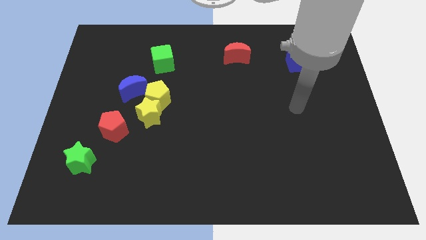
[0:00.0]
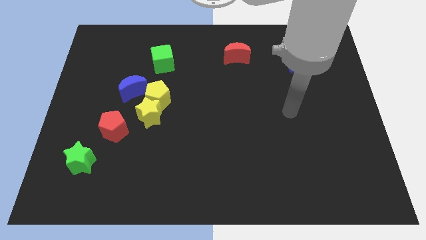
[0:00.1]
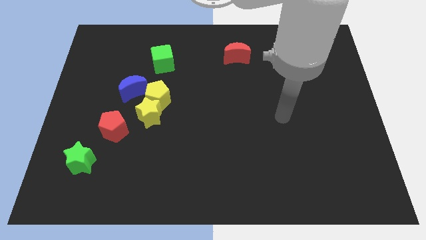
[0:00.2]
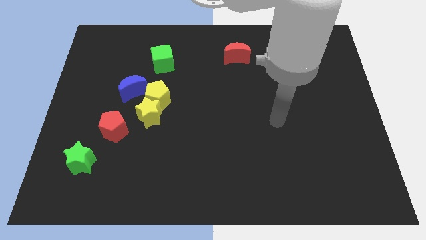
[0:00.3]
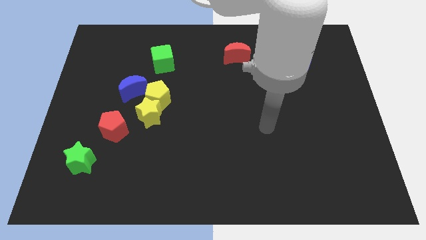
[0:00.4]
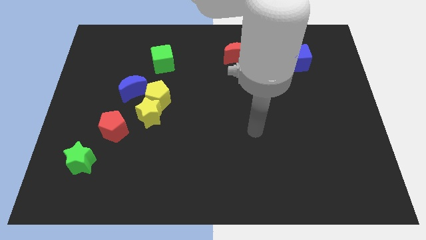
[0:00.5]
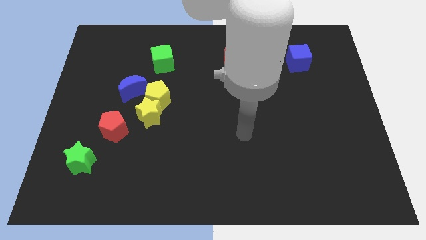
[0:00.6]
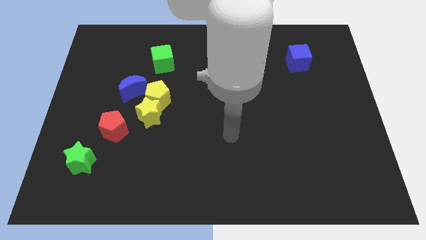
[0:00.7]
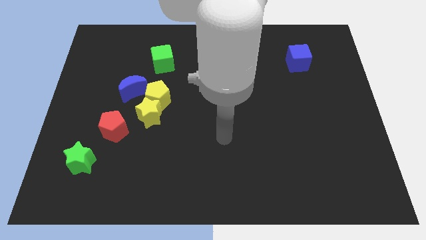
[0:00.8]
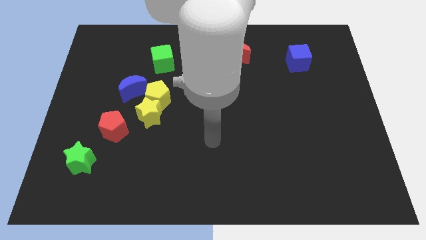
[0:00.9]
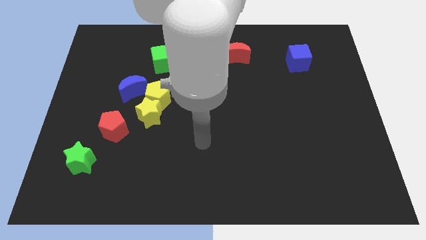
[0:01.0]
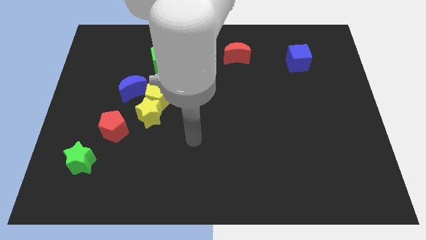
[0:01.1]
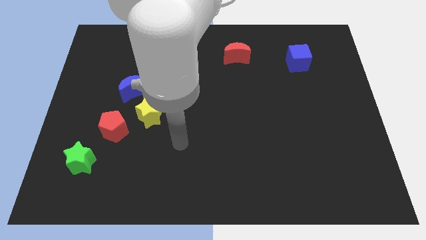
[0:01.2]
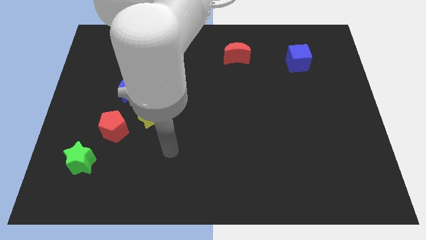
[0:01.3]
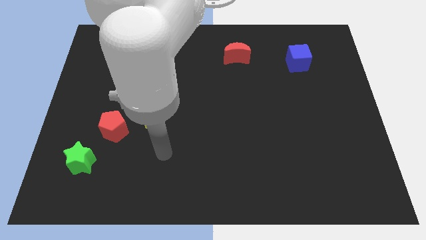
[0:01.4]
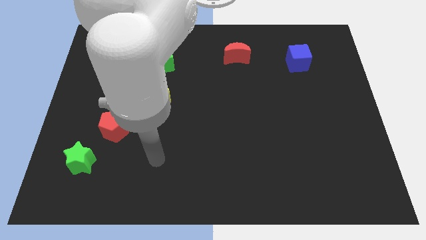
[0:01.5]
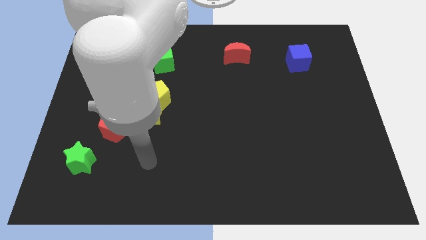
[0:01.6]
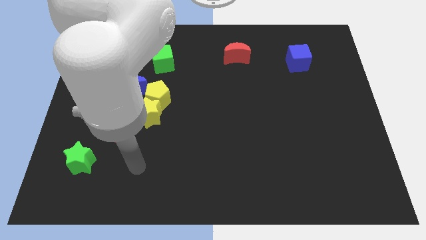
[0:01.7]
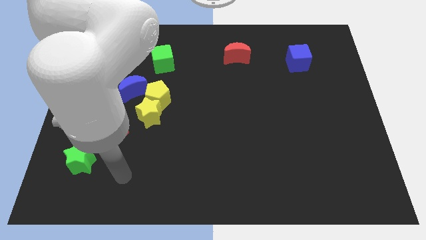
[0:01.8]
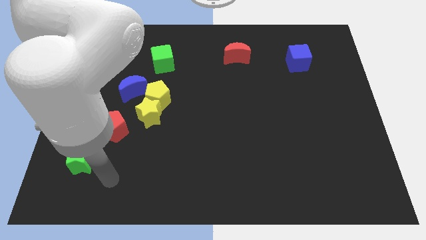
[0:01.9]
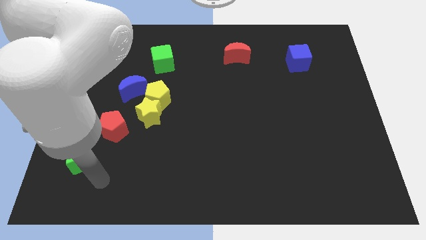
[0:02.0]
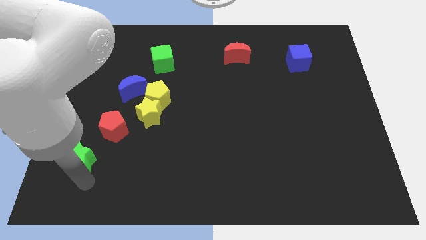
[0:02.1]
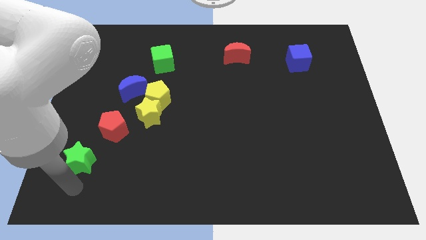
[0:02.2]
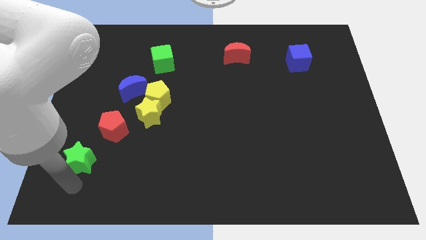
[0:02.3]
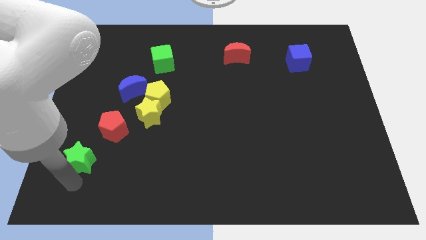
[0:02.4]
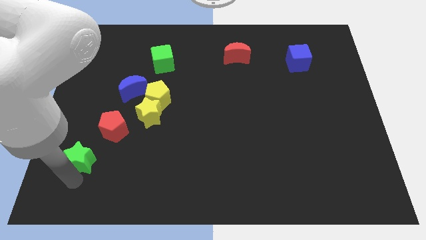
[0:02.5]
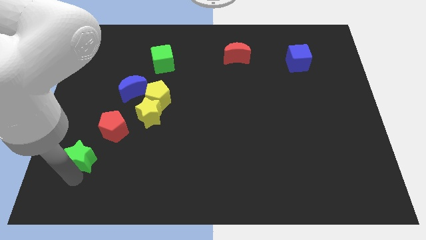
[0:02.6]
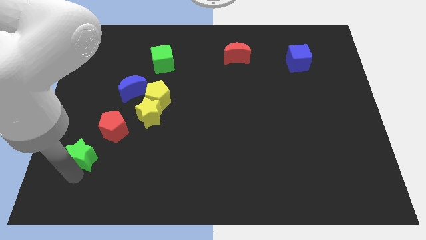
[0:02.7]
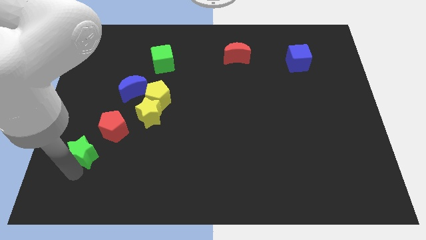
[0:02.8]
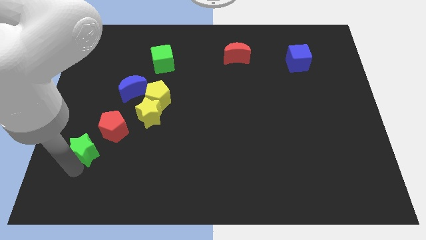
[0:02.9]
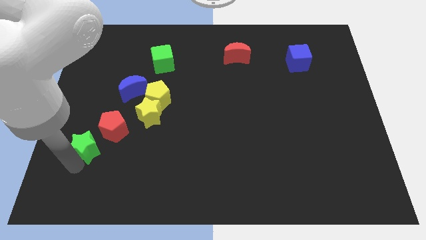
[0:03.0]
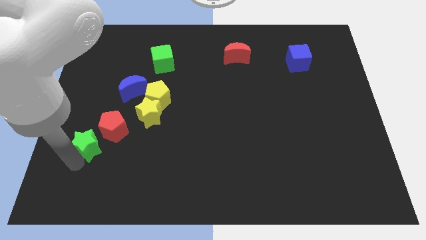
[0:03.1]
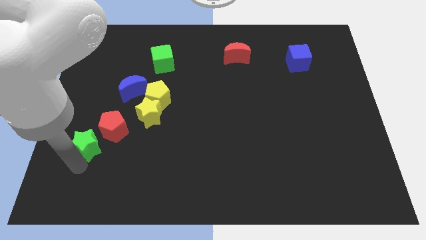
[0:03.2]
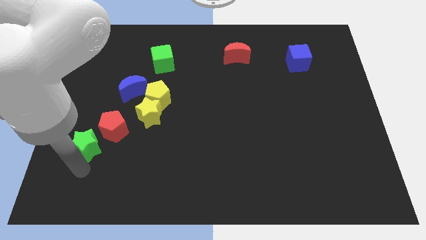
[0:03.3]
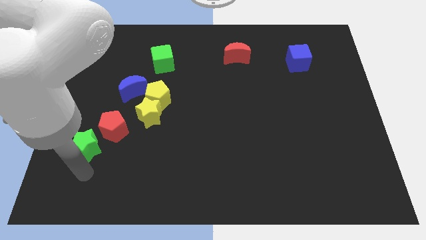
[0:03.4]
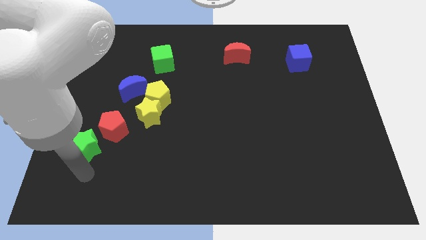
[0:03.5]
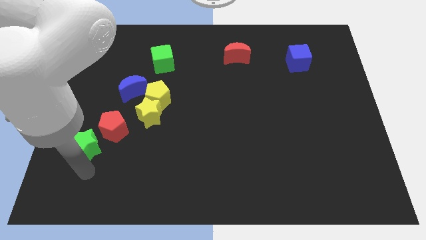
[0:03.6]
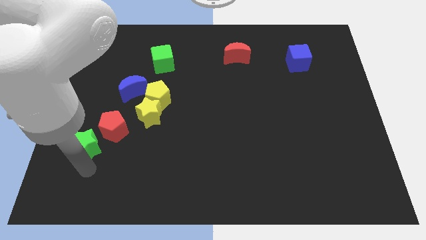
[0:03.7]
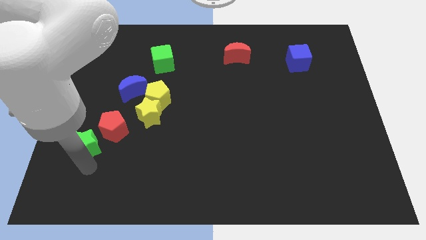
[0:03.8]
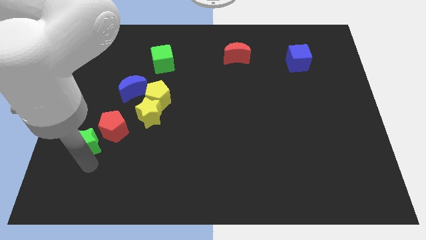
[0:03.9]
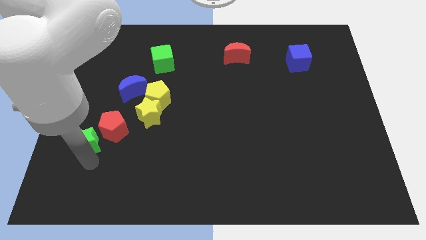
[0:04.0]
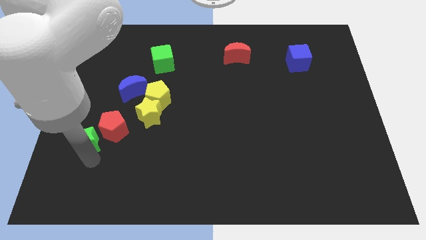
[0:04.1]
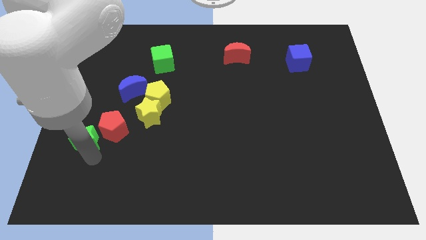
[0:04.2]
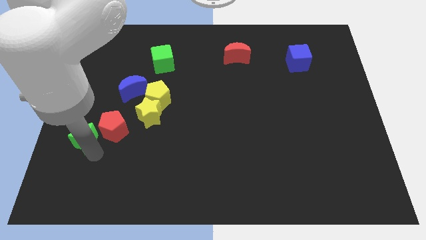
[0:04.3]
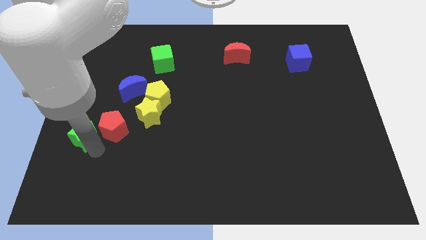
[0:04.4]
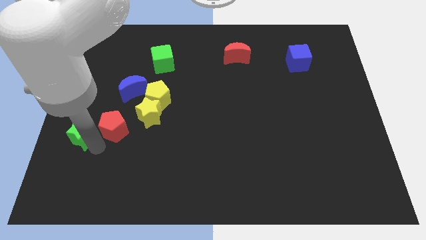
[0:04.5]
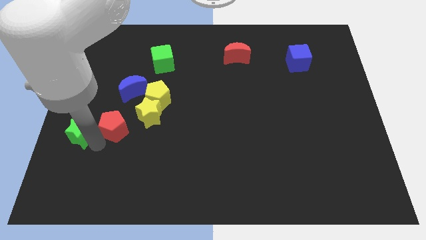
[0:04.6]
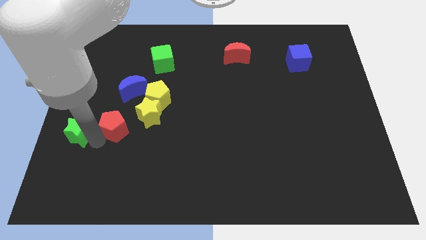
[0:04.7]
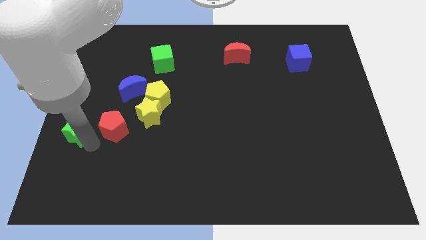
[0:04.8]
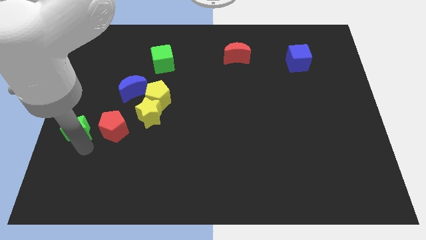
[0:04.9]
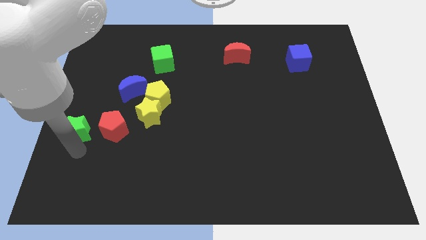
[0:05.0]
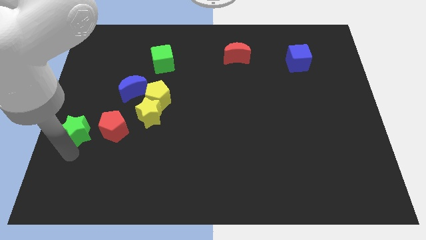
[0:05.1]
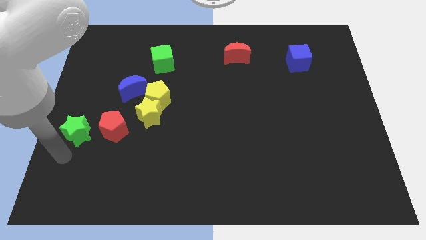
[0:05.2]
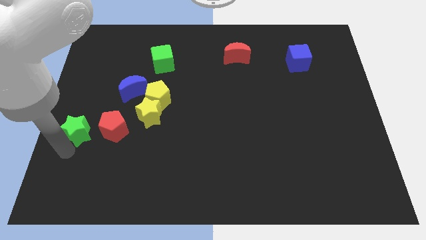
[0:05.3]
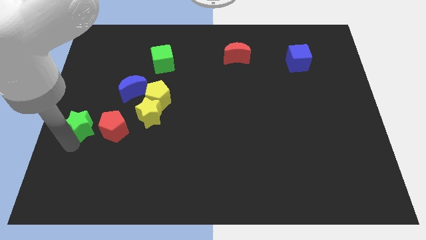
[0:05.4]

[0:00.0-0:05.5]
put the green star to the top left of the red pentagon

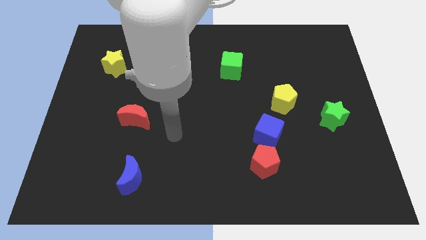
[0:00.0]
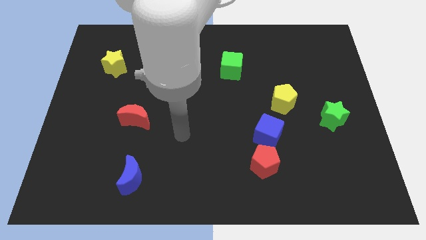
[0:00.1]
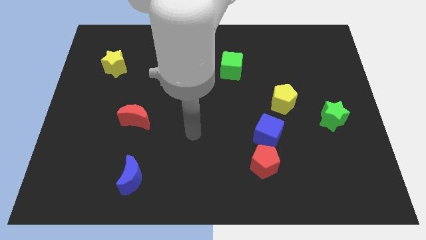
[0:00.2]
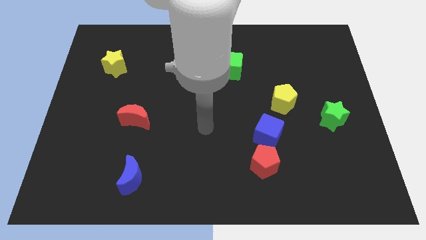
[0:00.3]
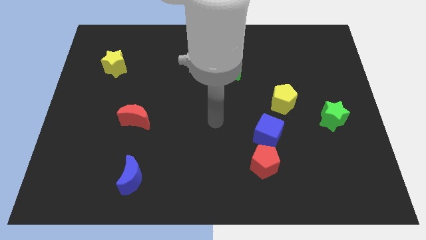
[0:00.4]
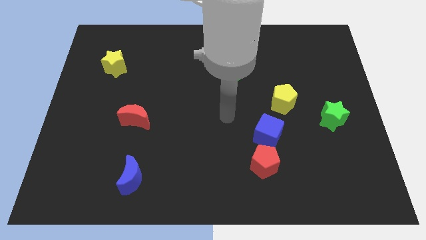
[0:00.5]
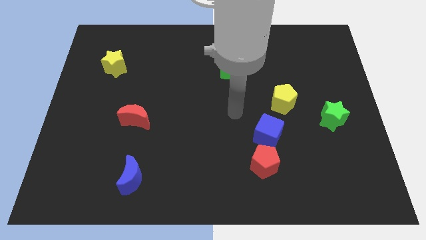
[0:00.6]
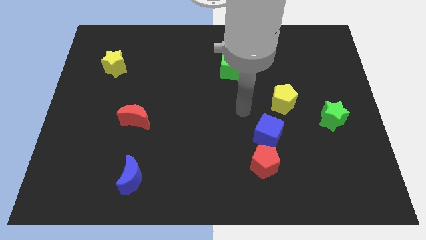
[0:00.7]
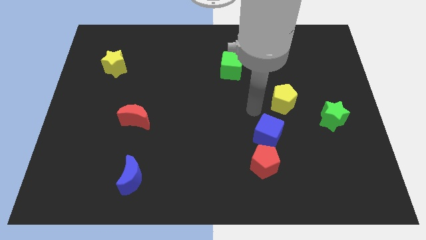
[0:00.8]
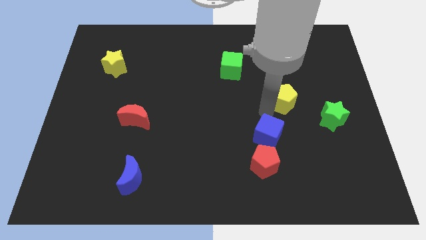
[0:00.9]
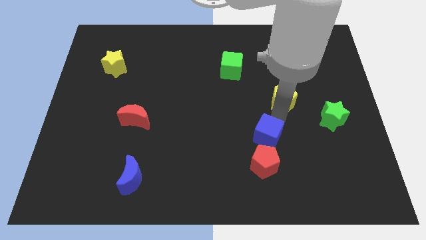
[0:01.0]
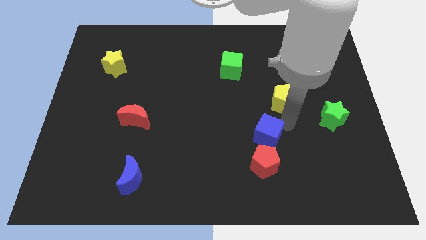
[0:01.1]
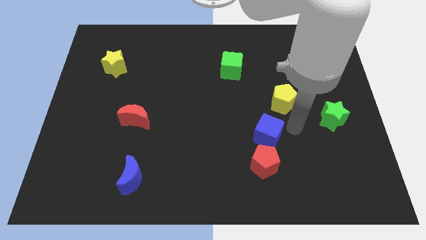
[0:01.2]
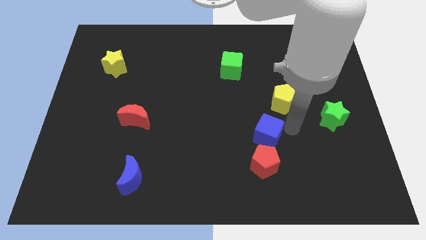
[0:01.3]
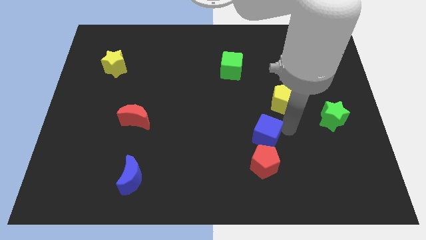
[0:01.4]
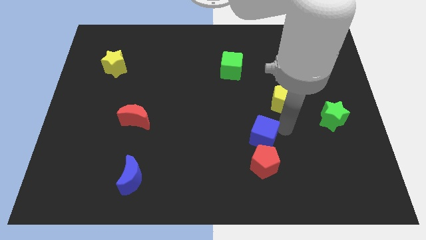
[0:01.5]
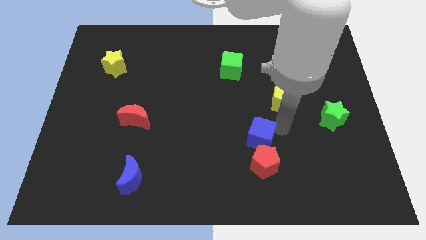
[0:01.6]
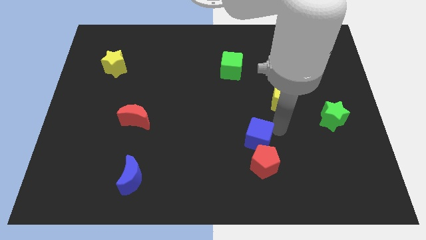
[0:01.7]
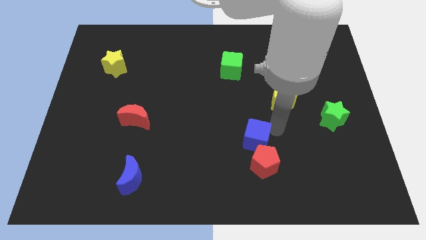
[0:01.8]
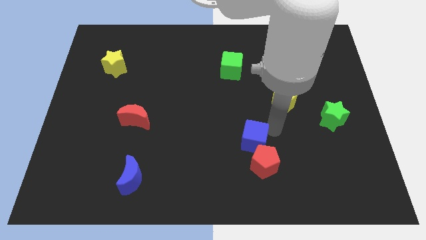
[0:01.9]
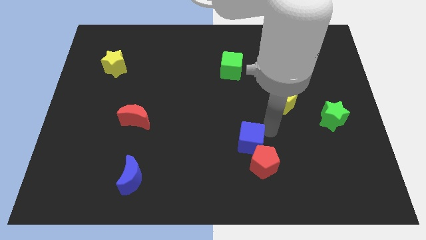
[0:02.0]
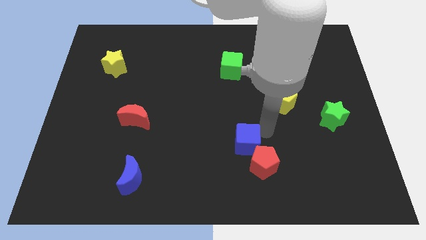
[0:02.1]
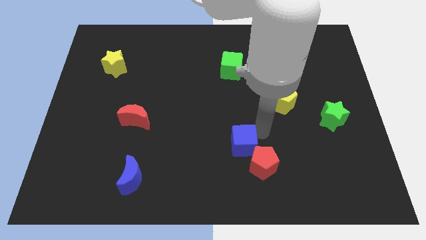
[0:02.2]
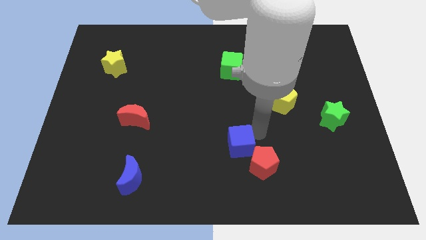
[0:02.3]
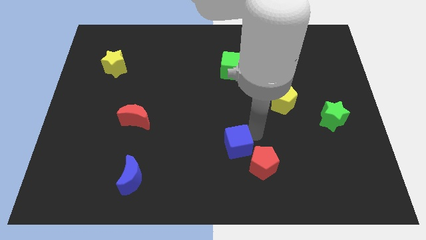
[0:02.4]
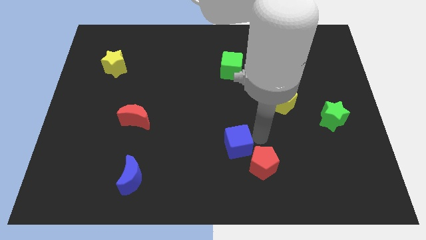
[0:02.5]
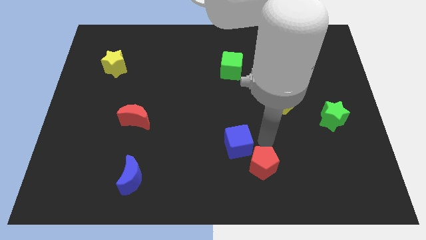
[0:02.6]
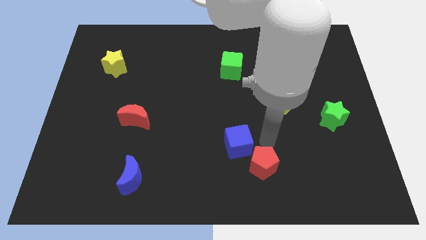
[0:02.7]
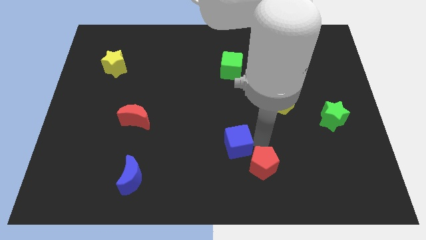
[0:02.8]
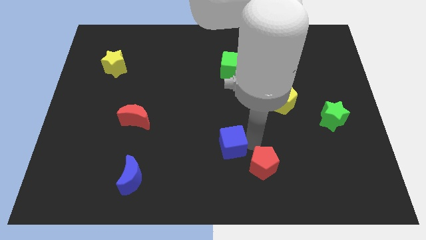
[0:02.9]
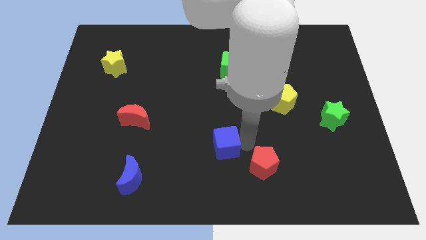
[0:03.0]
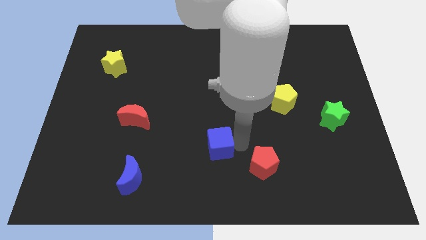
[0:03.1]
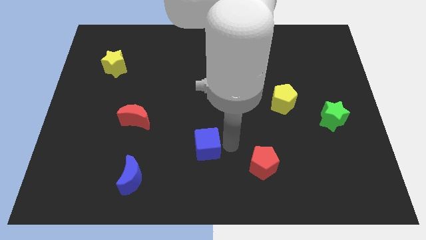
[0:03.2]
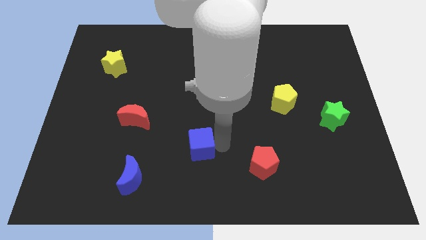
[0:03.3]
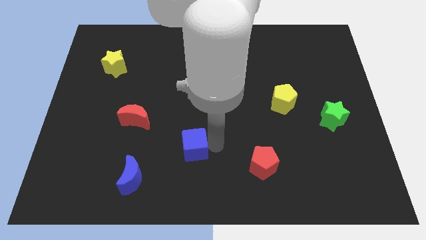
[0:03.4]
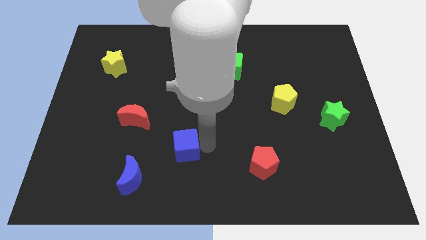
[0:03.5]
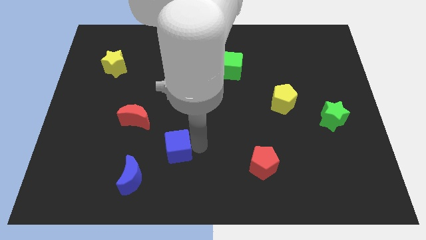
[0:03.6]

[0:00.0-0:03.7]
put the blue cube to the top right of the blue moon
